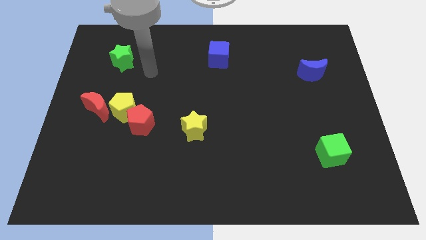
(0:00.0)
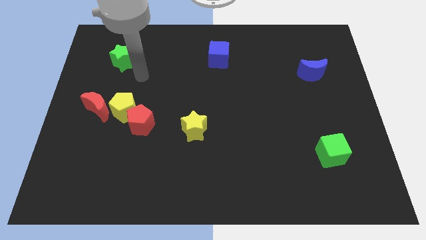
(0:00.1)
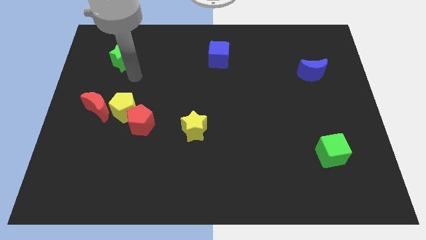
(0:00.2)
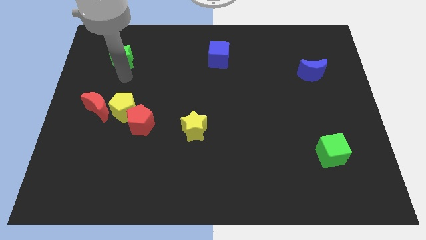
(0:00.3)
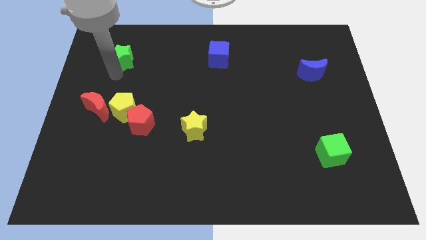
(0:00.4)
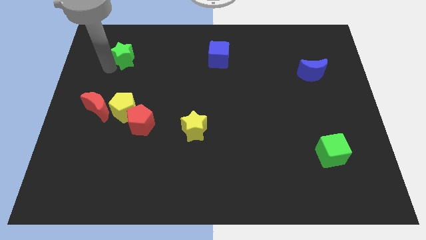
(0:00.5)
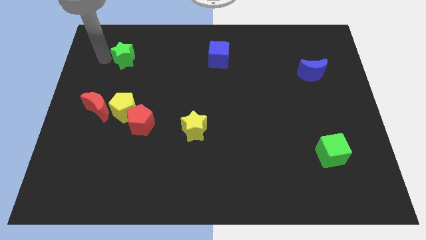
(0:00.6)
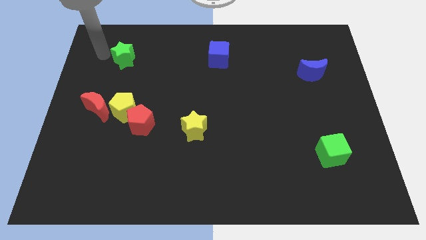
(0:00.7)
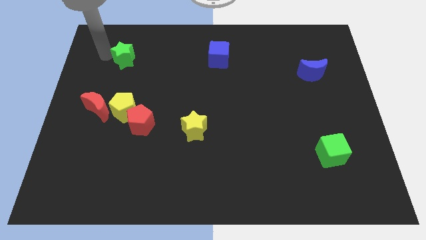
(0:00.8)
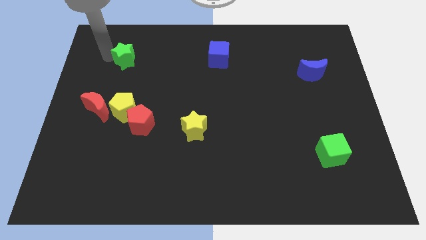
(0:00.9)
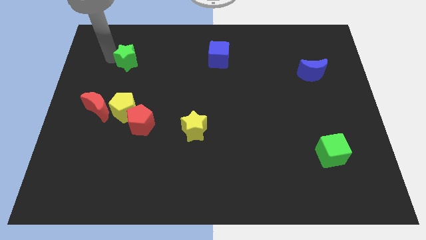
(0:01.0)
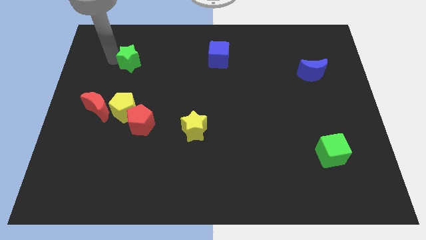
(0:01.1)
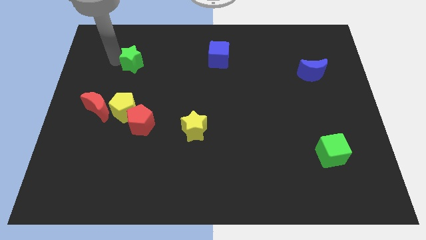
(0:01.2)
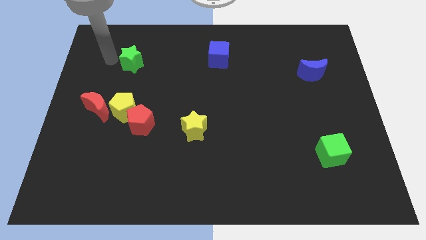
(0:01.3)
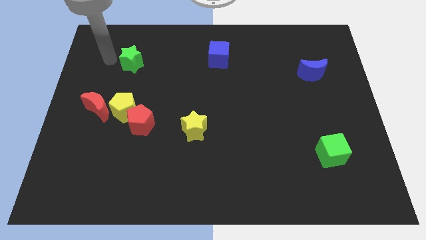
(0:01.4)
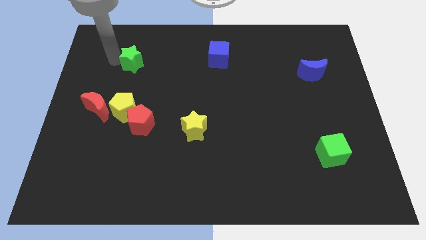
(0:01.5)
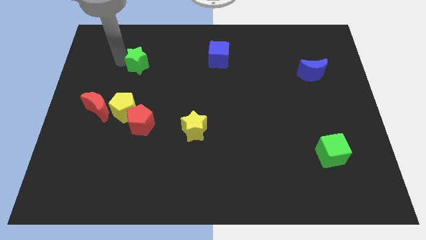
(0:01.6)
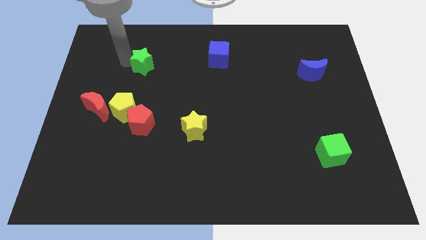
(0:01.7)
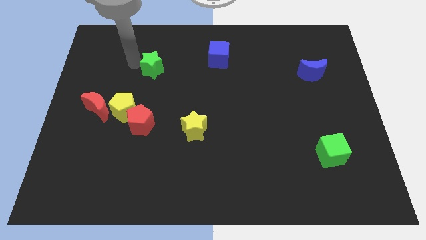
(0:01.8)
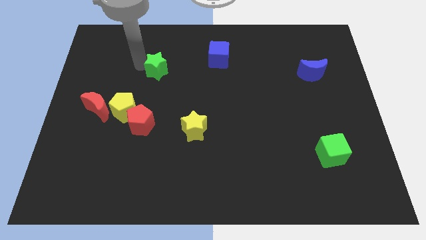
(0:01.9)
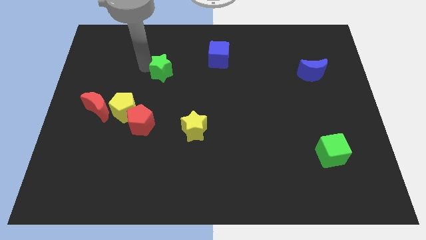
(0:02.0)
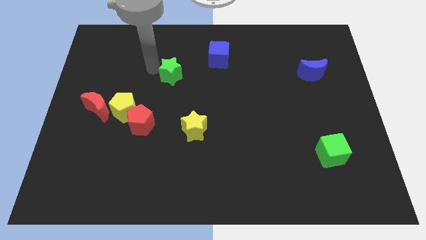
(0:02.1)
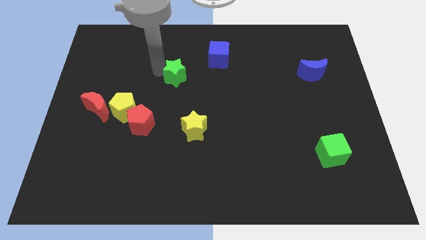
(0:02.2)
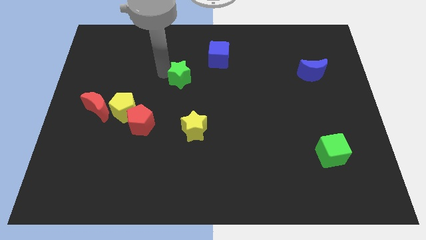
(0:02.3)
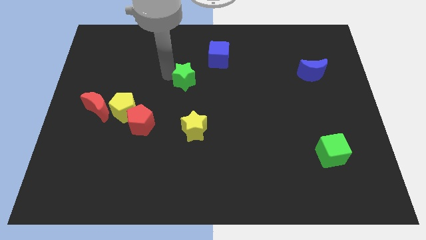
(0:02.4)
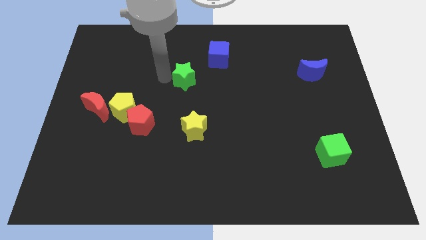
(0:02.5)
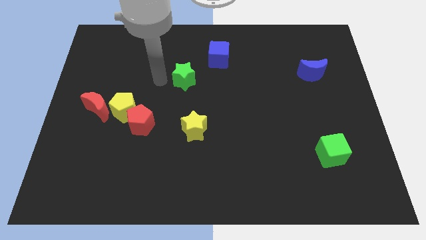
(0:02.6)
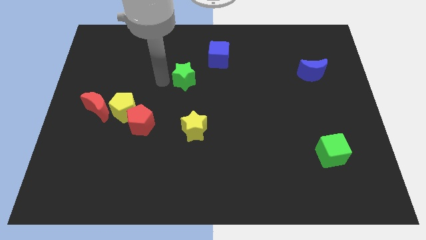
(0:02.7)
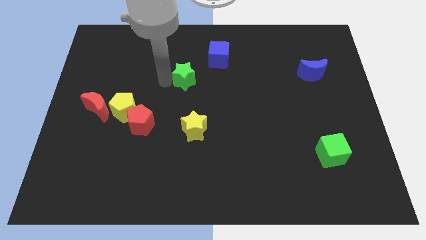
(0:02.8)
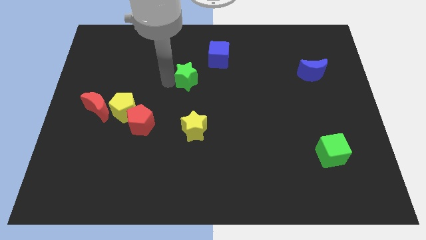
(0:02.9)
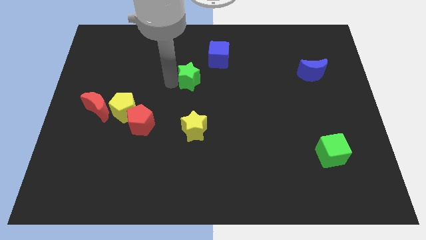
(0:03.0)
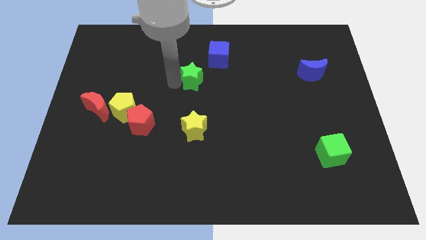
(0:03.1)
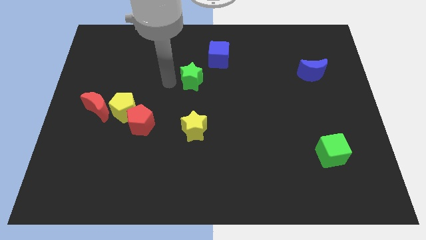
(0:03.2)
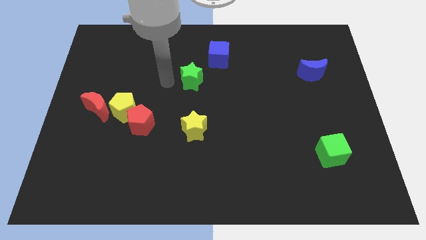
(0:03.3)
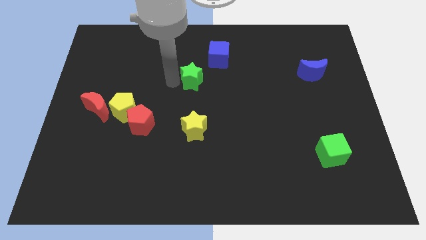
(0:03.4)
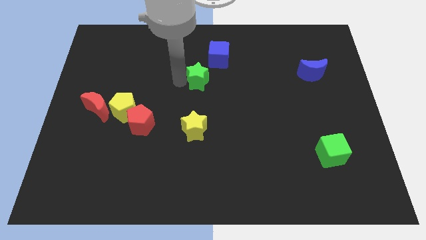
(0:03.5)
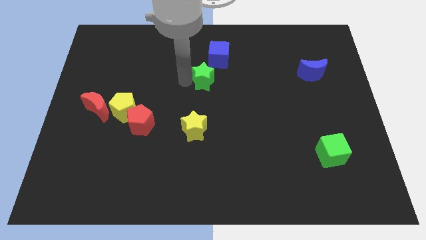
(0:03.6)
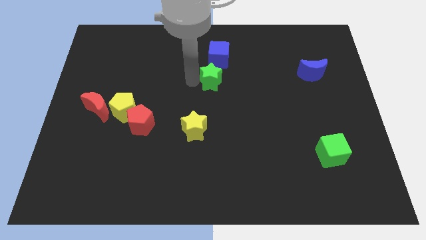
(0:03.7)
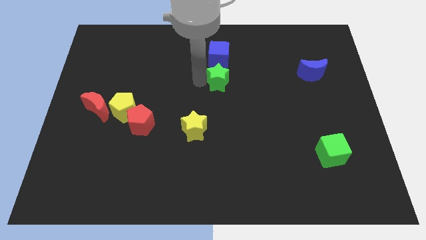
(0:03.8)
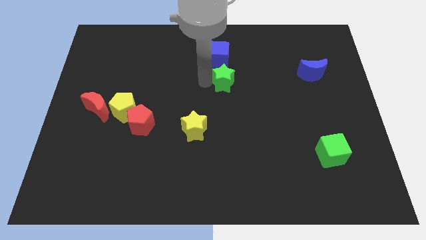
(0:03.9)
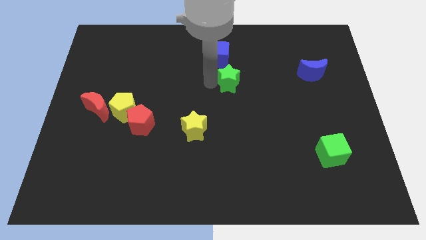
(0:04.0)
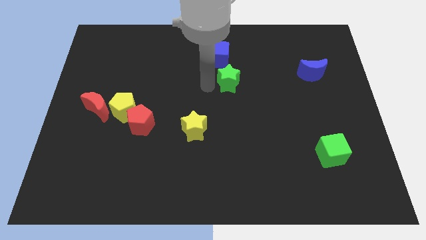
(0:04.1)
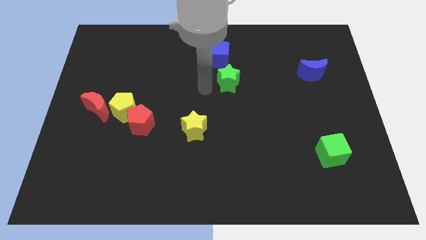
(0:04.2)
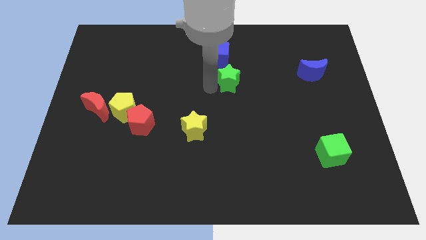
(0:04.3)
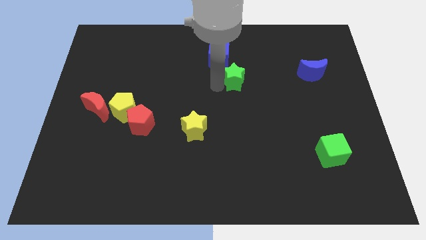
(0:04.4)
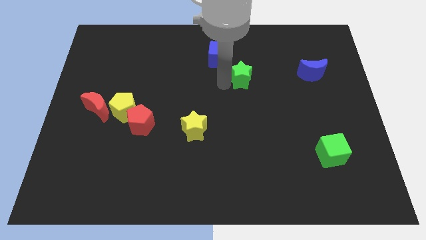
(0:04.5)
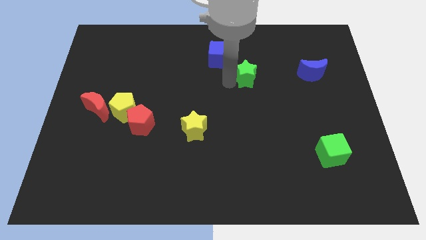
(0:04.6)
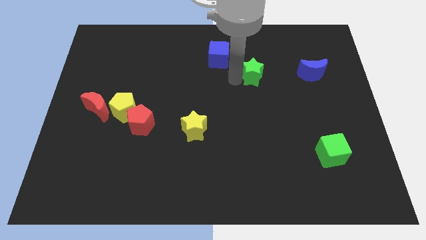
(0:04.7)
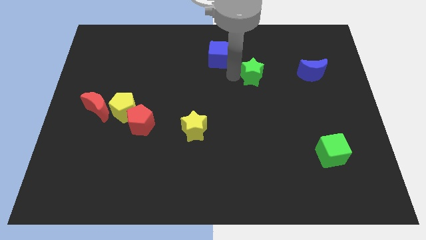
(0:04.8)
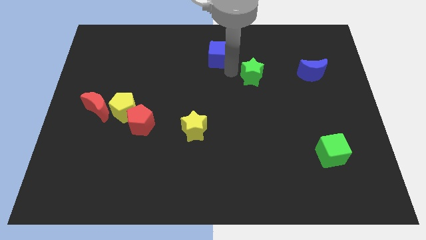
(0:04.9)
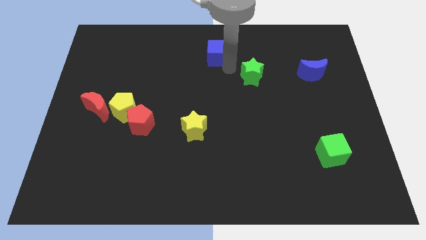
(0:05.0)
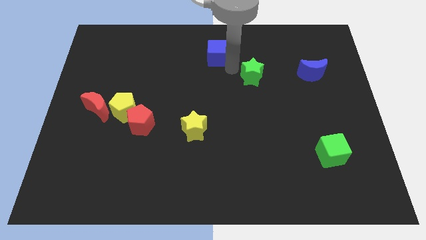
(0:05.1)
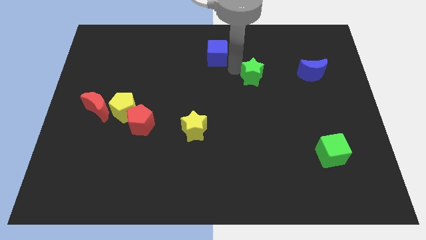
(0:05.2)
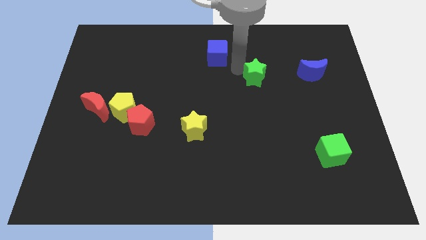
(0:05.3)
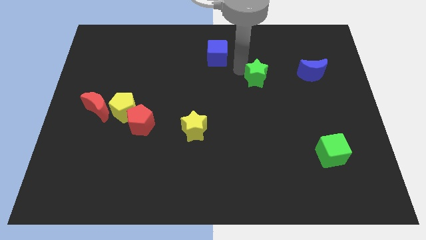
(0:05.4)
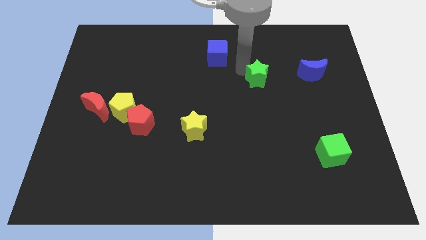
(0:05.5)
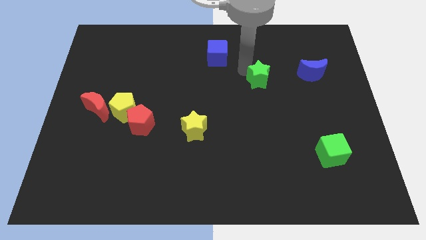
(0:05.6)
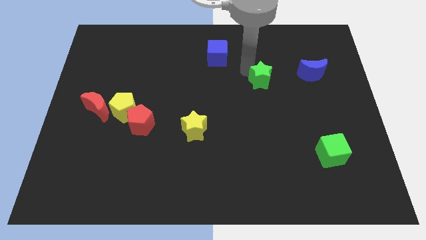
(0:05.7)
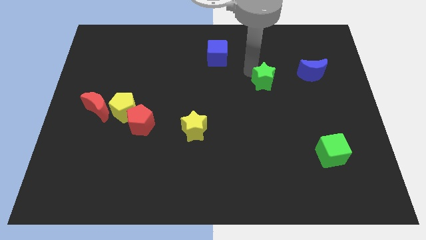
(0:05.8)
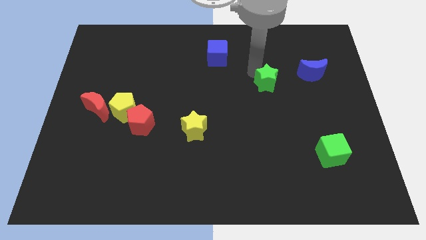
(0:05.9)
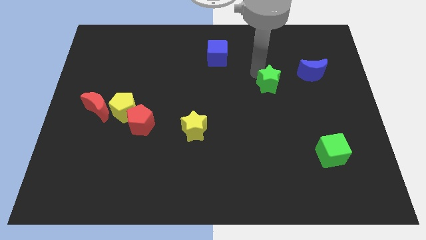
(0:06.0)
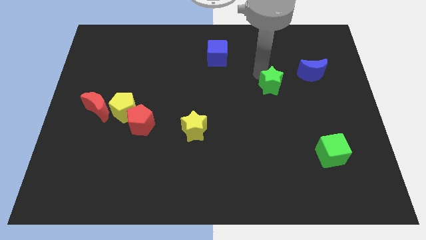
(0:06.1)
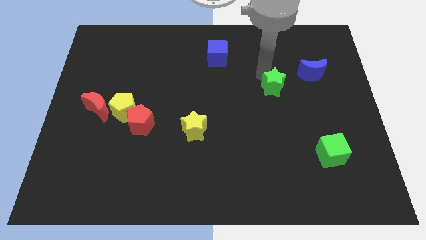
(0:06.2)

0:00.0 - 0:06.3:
move the green star to the bottom left of the blue moon

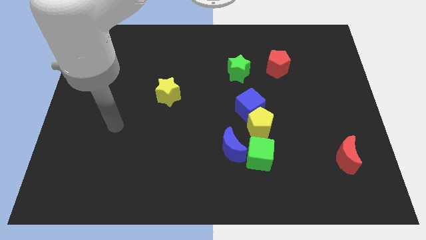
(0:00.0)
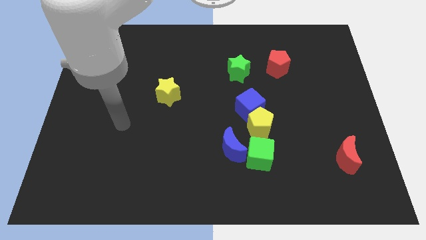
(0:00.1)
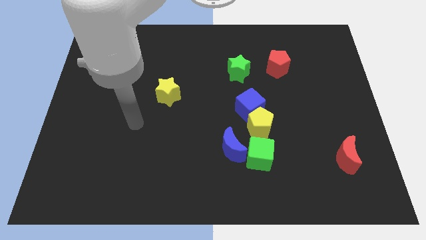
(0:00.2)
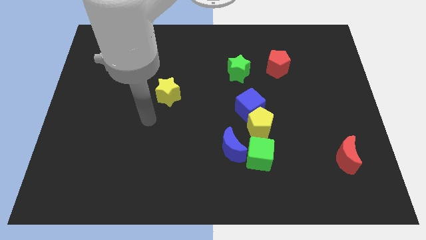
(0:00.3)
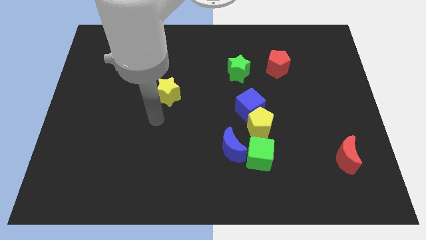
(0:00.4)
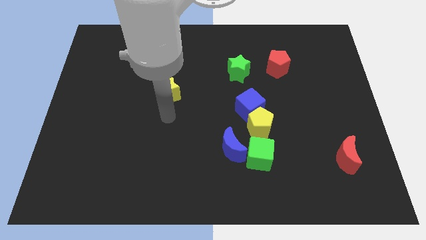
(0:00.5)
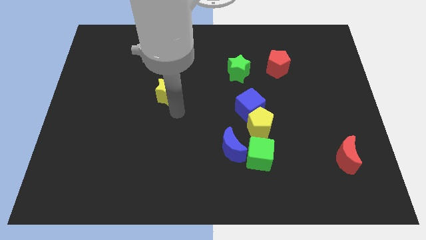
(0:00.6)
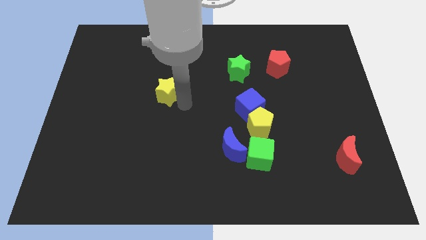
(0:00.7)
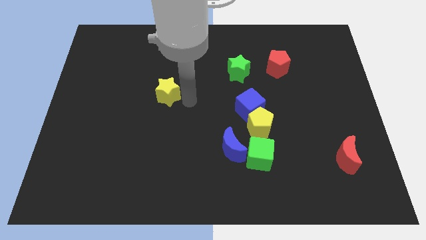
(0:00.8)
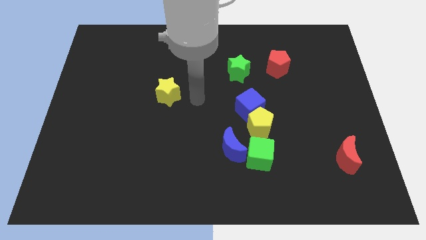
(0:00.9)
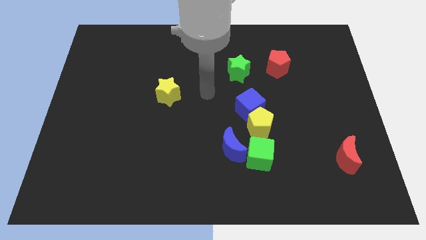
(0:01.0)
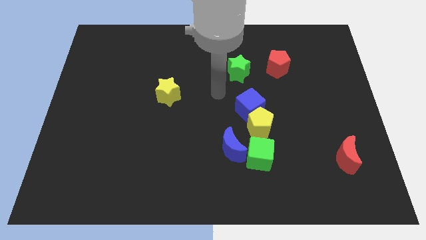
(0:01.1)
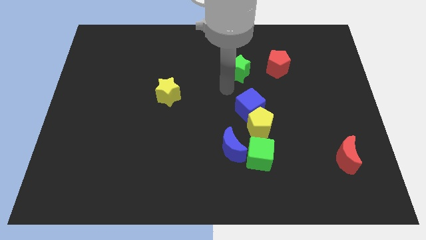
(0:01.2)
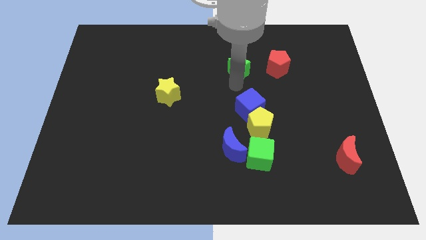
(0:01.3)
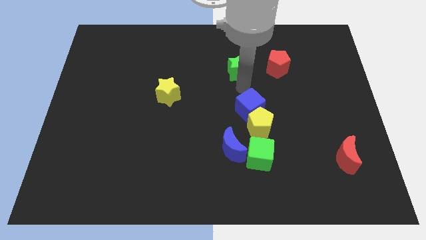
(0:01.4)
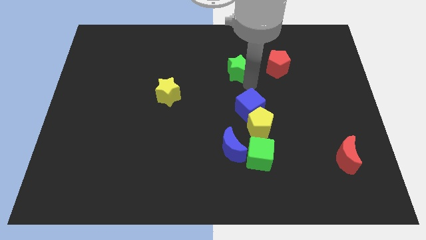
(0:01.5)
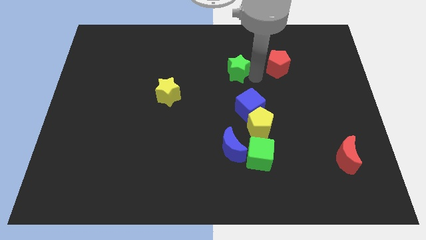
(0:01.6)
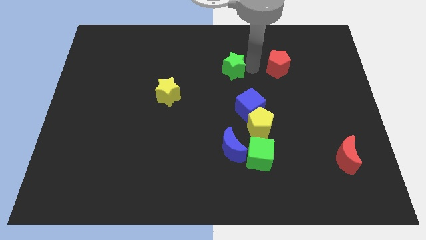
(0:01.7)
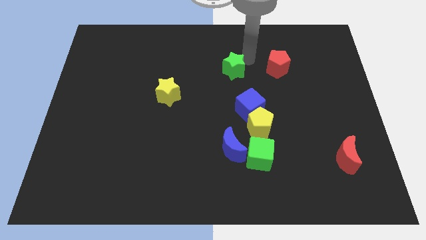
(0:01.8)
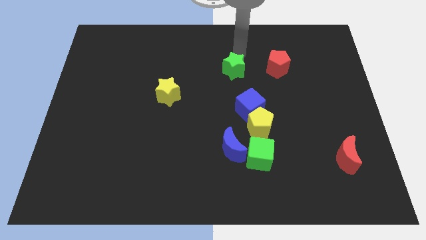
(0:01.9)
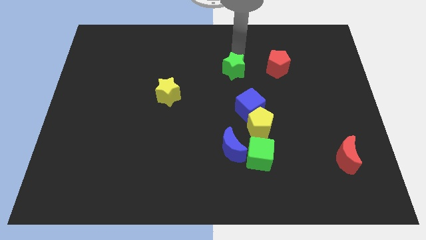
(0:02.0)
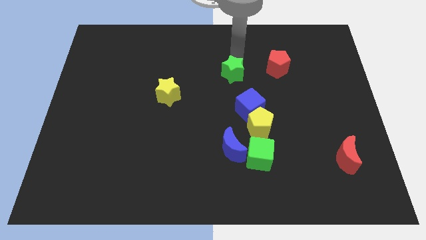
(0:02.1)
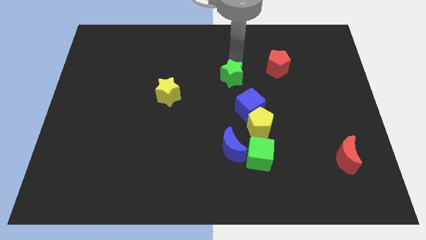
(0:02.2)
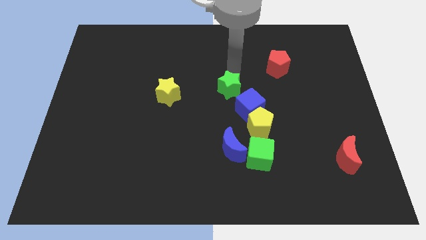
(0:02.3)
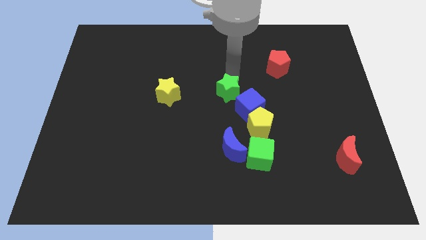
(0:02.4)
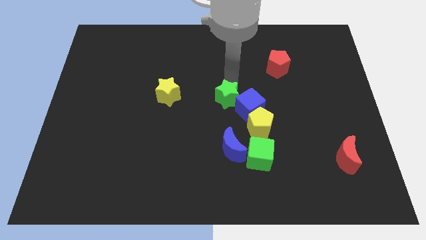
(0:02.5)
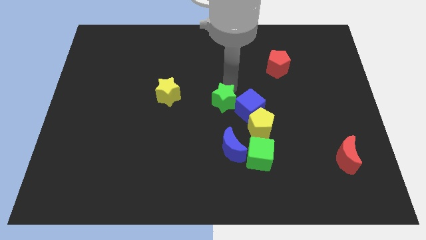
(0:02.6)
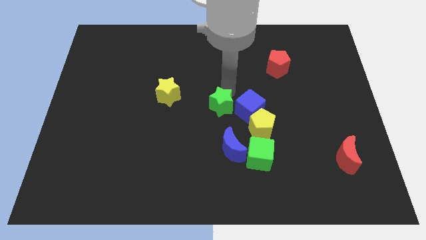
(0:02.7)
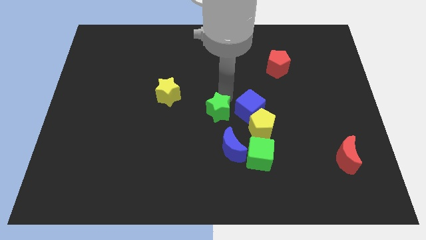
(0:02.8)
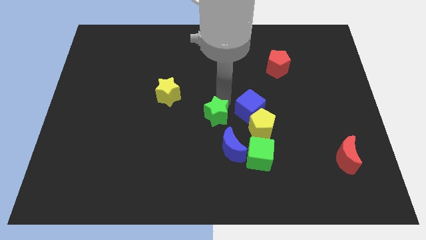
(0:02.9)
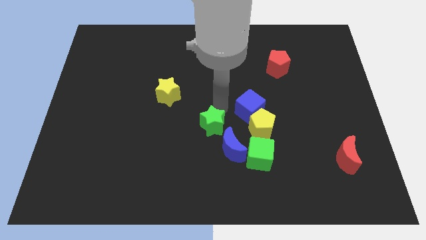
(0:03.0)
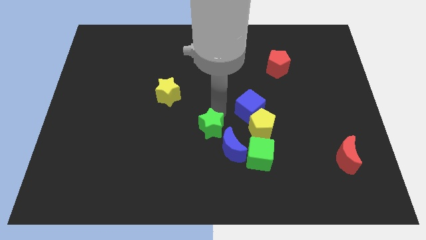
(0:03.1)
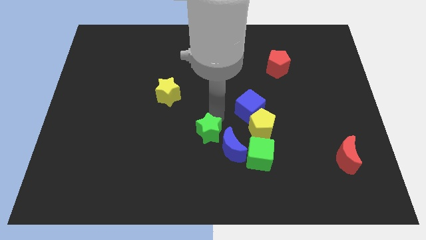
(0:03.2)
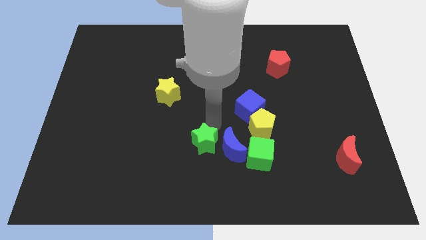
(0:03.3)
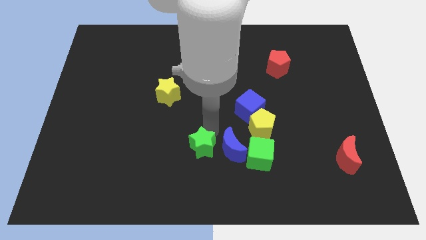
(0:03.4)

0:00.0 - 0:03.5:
push the green star to the bottom left of the blue moon
